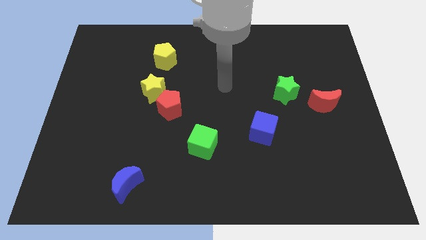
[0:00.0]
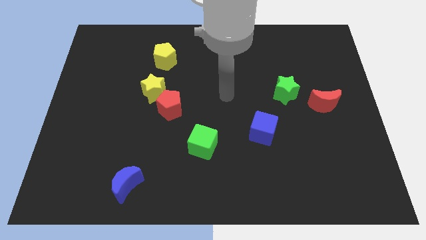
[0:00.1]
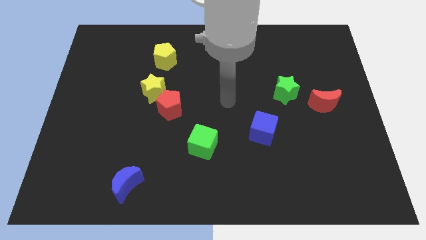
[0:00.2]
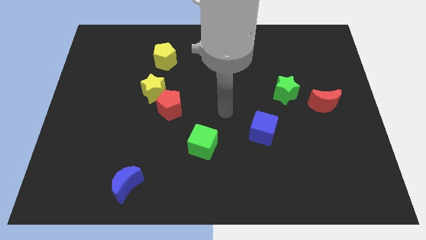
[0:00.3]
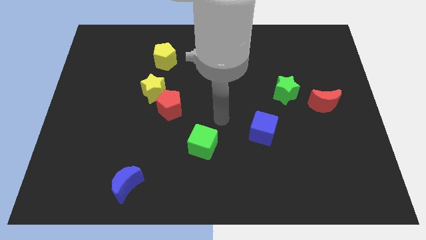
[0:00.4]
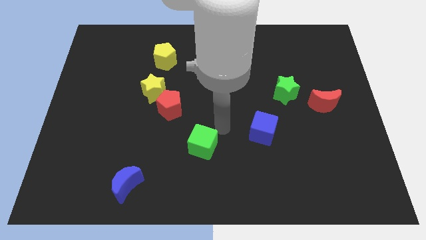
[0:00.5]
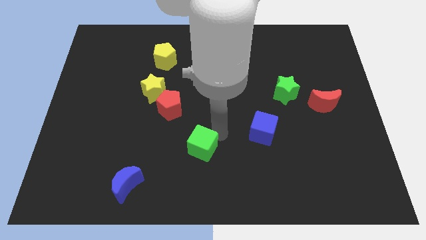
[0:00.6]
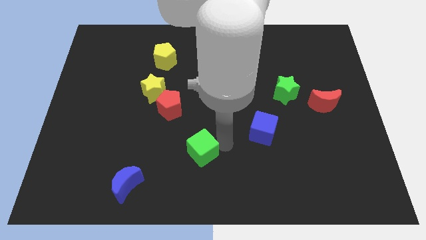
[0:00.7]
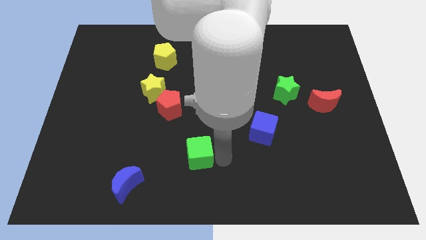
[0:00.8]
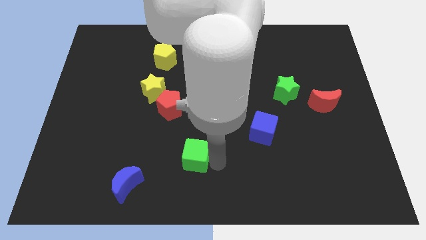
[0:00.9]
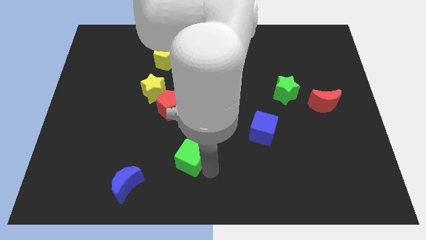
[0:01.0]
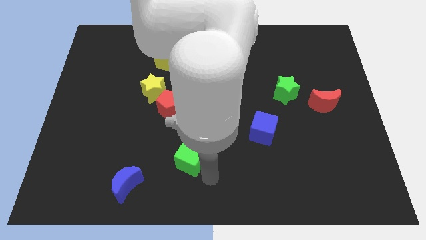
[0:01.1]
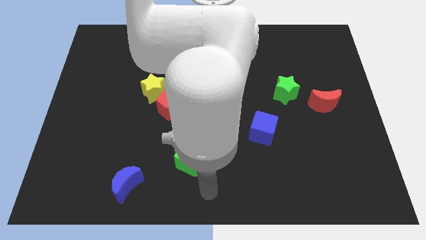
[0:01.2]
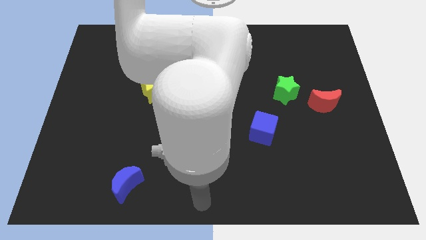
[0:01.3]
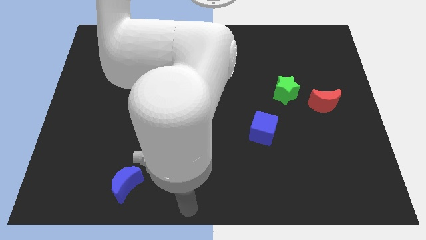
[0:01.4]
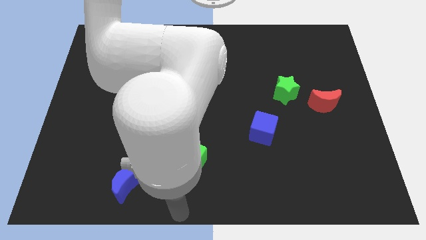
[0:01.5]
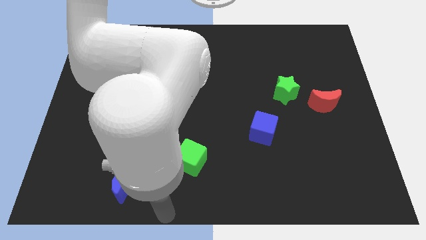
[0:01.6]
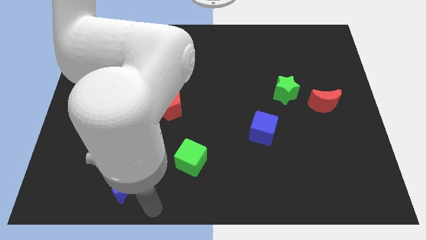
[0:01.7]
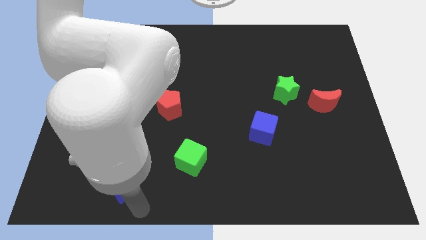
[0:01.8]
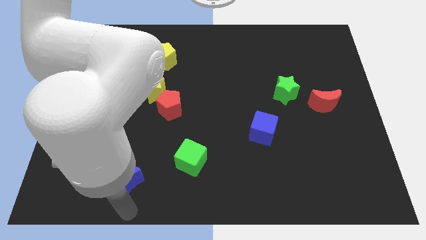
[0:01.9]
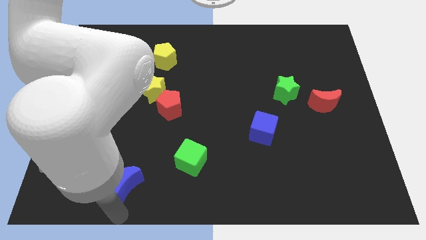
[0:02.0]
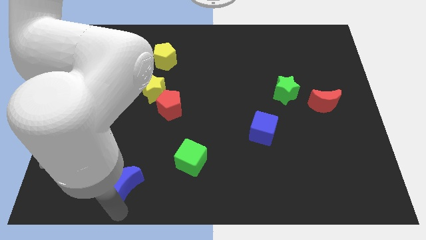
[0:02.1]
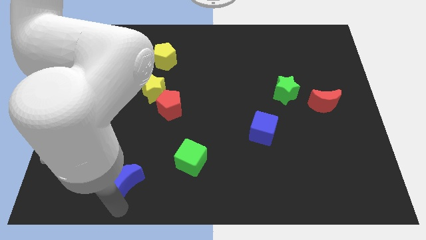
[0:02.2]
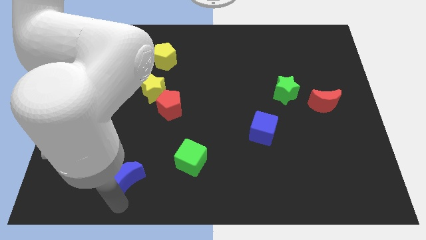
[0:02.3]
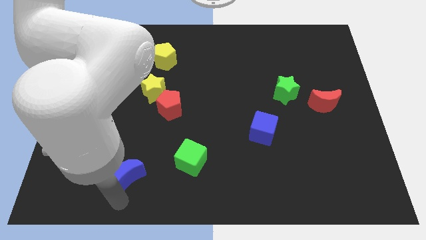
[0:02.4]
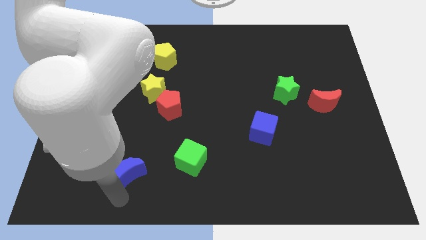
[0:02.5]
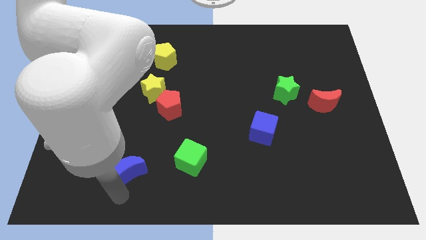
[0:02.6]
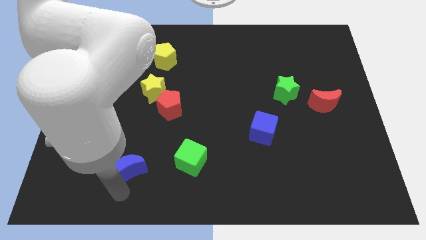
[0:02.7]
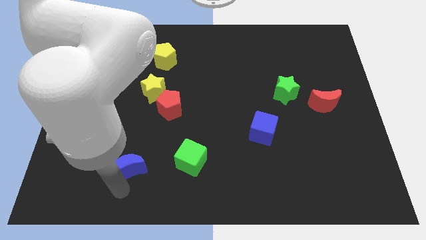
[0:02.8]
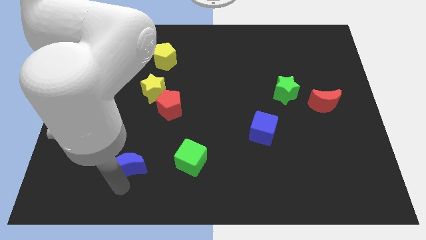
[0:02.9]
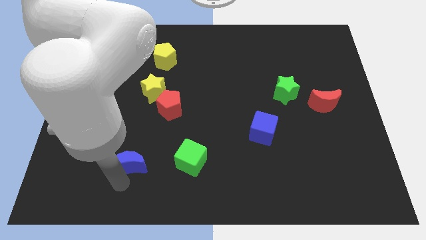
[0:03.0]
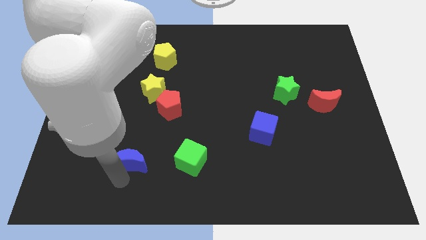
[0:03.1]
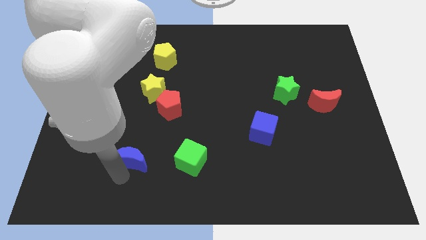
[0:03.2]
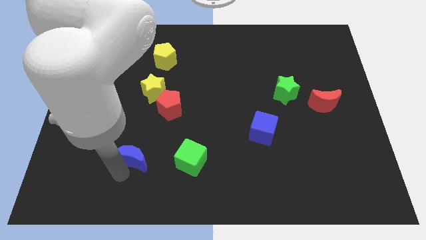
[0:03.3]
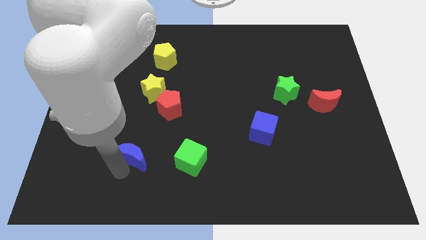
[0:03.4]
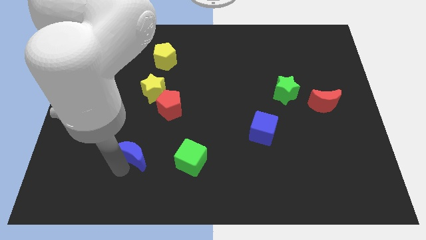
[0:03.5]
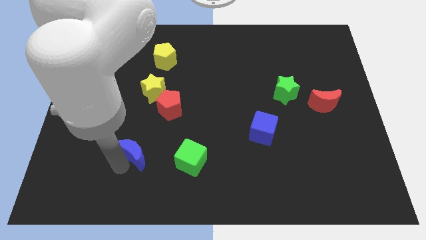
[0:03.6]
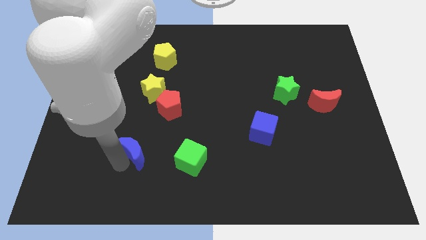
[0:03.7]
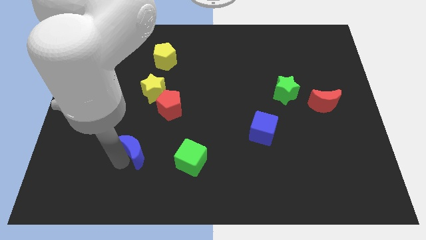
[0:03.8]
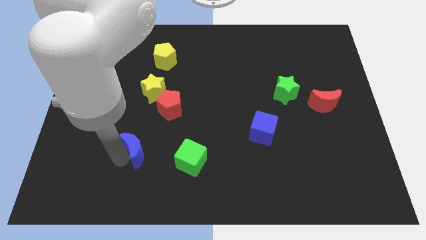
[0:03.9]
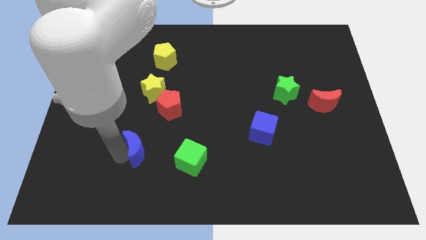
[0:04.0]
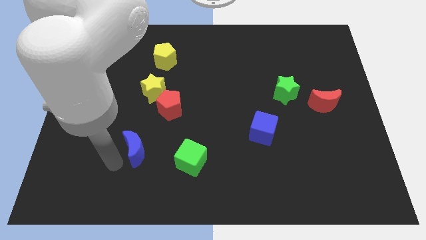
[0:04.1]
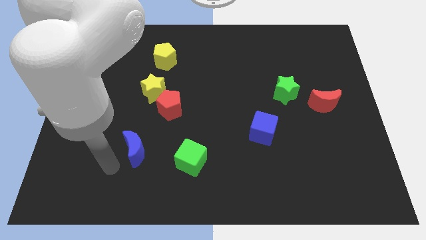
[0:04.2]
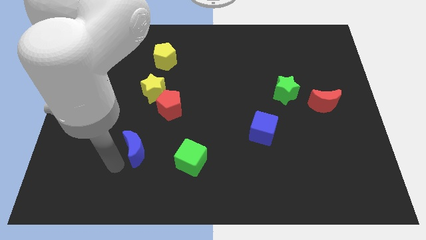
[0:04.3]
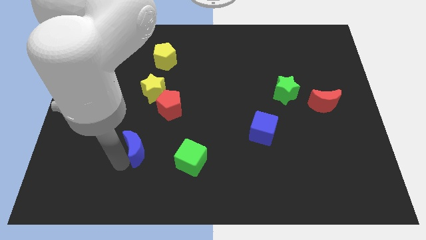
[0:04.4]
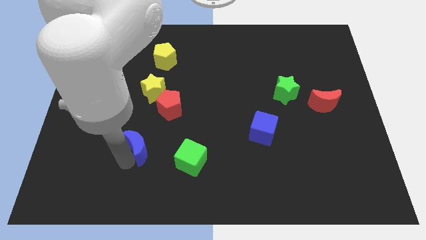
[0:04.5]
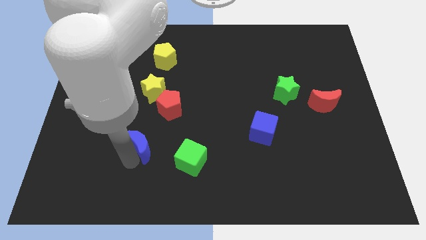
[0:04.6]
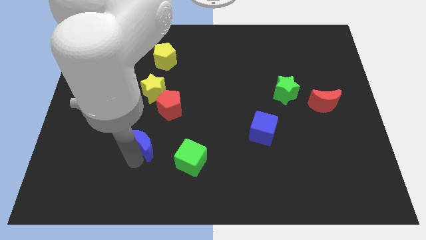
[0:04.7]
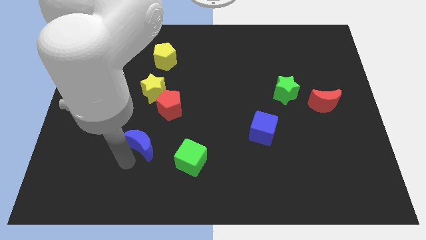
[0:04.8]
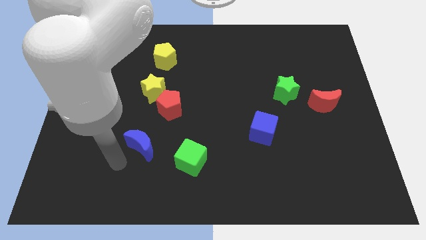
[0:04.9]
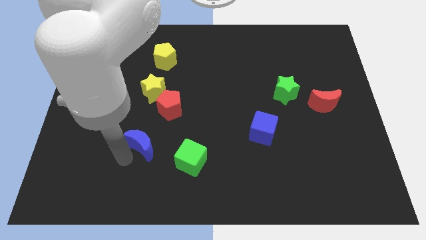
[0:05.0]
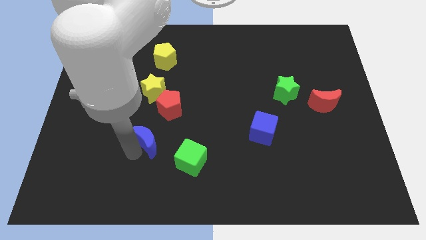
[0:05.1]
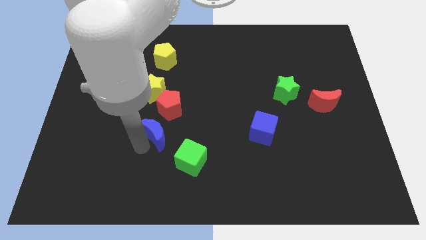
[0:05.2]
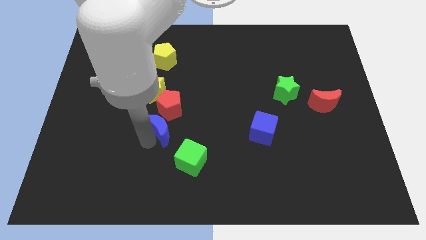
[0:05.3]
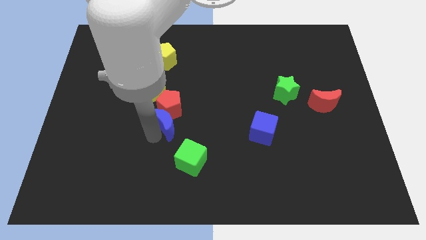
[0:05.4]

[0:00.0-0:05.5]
slide the blue moon to the bottom right of the yellow star

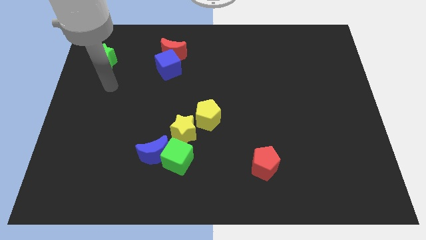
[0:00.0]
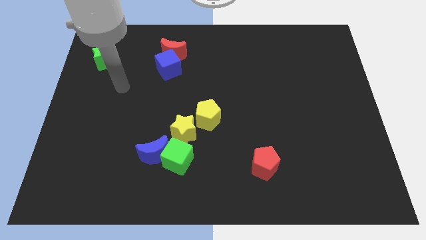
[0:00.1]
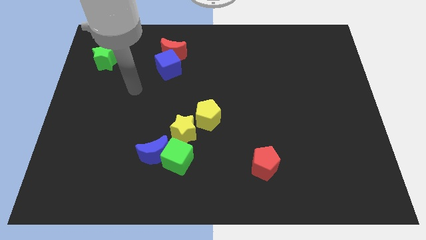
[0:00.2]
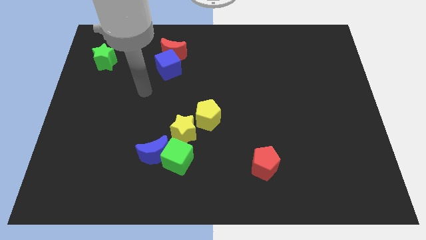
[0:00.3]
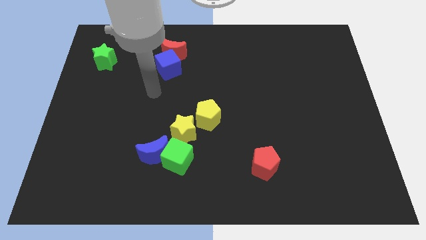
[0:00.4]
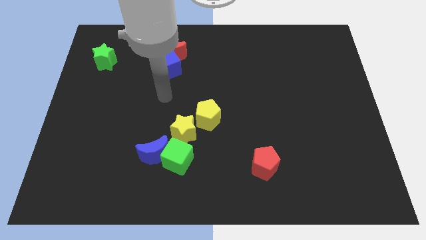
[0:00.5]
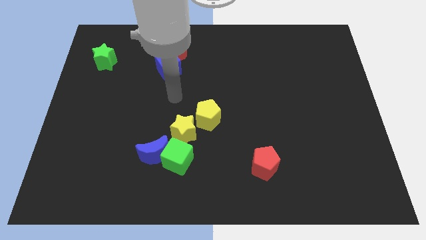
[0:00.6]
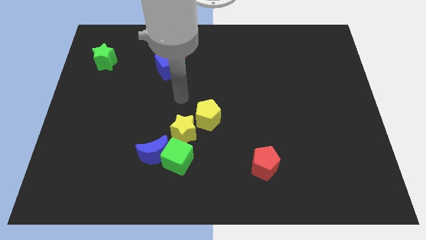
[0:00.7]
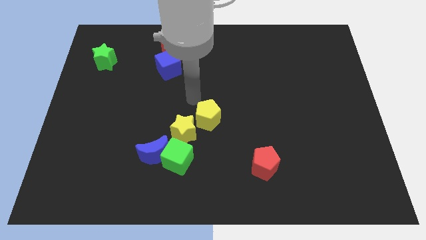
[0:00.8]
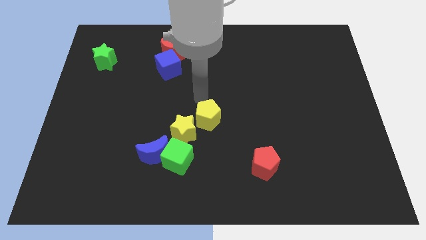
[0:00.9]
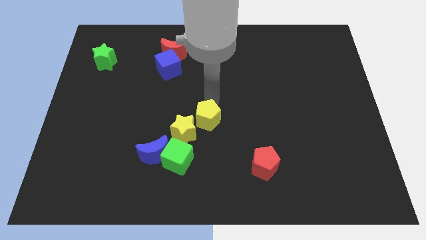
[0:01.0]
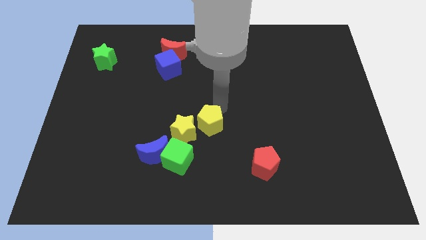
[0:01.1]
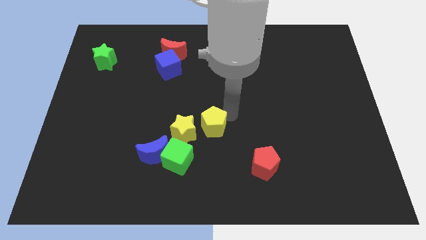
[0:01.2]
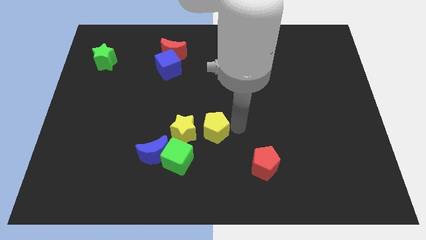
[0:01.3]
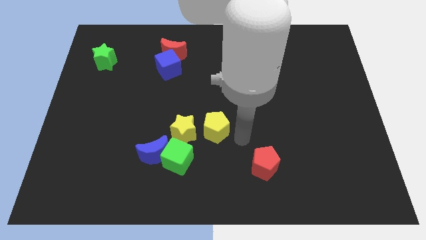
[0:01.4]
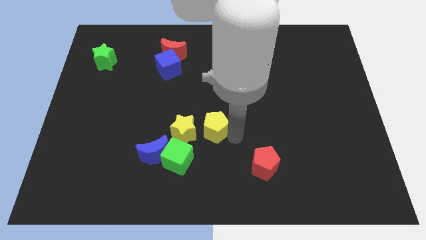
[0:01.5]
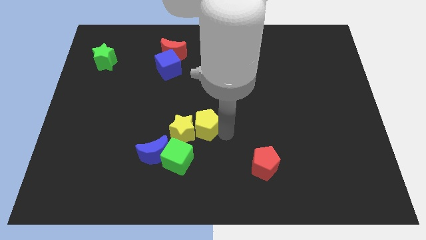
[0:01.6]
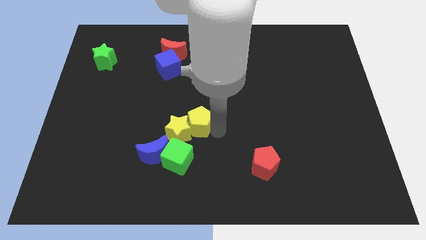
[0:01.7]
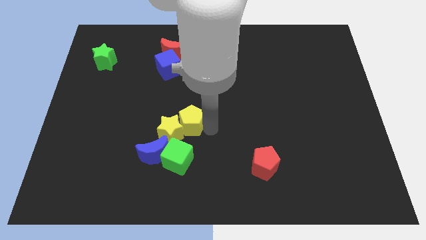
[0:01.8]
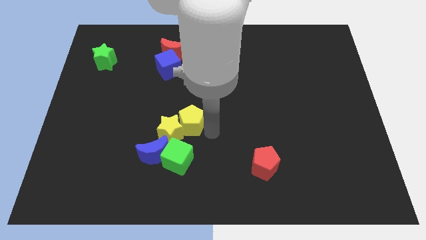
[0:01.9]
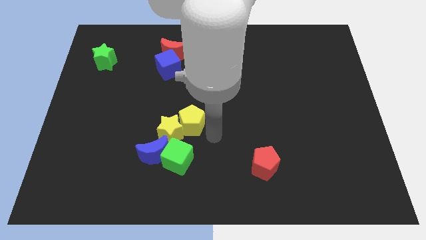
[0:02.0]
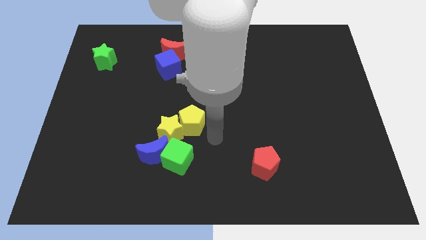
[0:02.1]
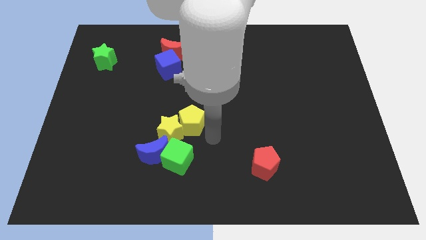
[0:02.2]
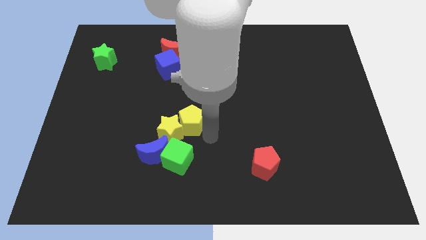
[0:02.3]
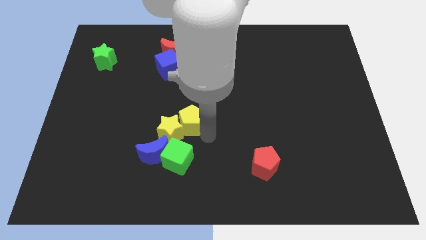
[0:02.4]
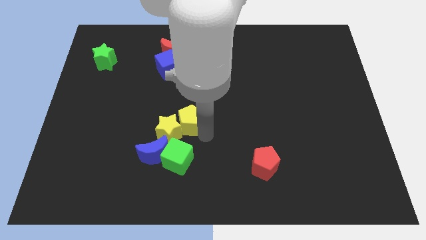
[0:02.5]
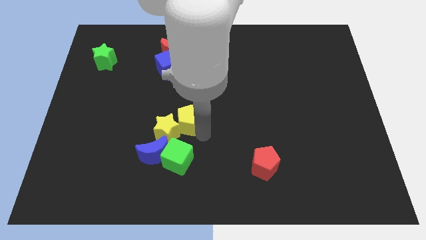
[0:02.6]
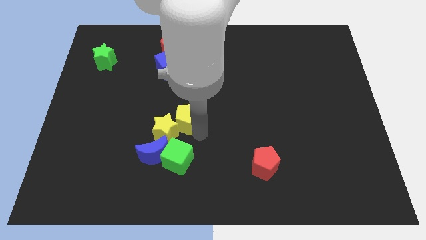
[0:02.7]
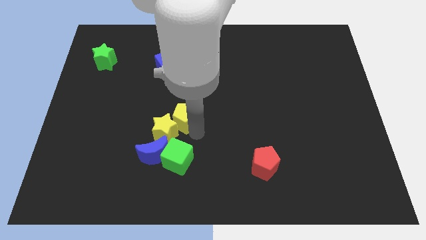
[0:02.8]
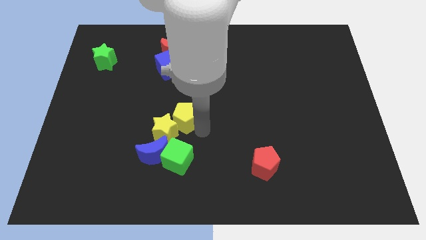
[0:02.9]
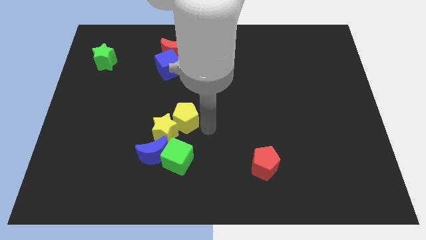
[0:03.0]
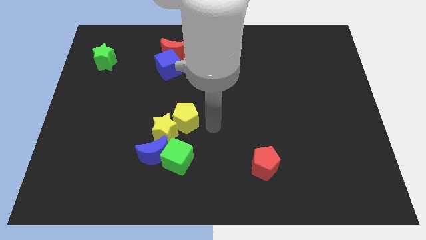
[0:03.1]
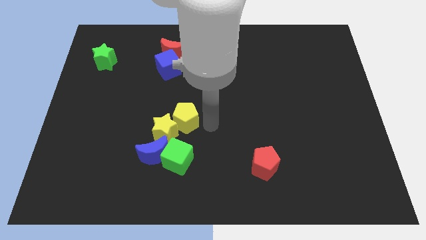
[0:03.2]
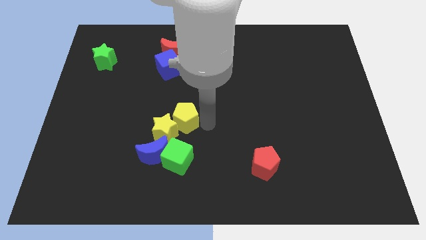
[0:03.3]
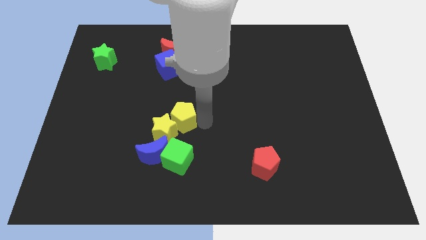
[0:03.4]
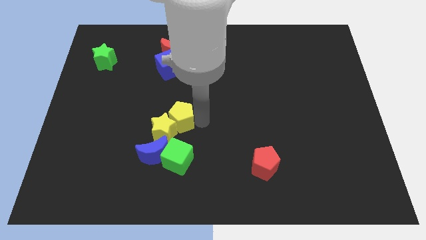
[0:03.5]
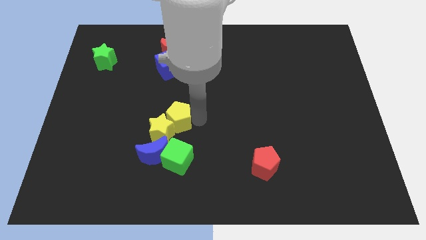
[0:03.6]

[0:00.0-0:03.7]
move the yellow pentagon to the top of the blue moon
